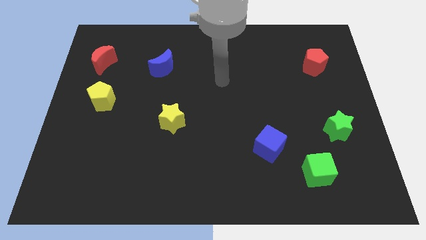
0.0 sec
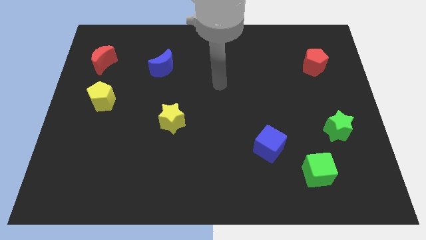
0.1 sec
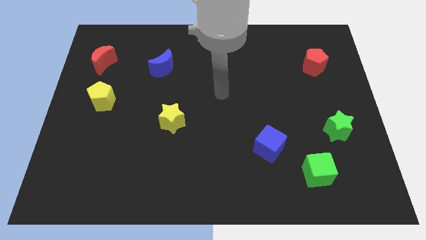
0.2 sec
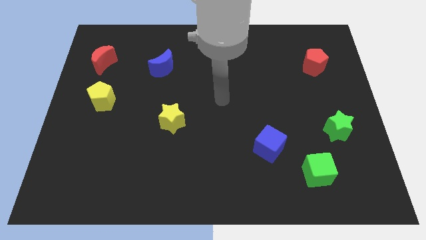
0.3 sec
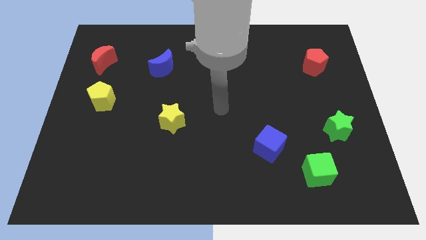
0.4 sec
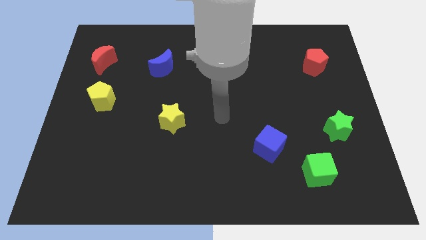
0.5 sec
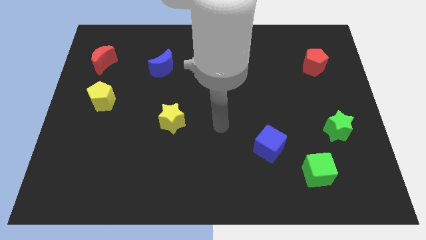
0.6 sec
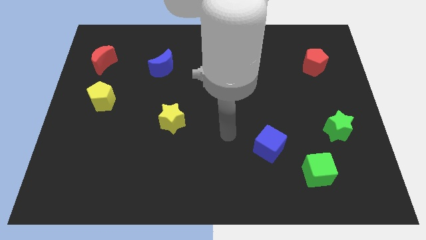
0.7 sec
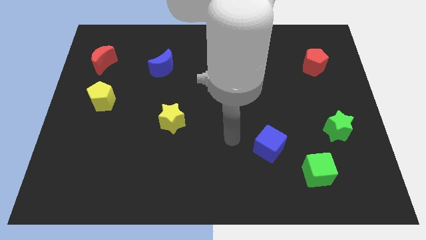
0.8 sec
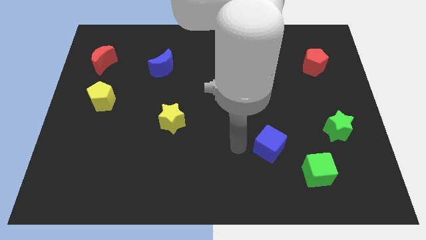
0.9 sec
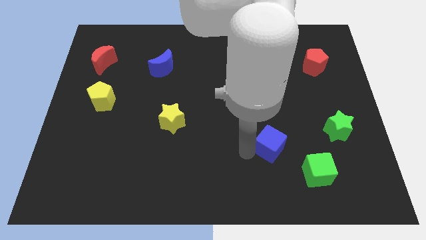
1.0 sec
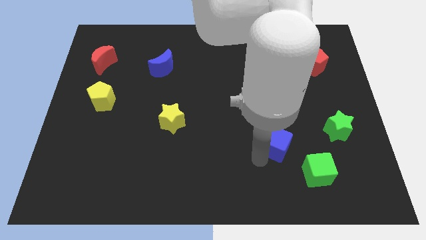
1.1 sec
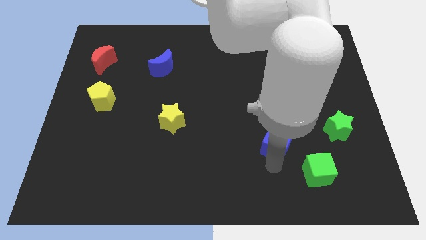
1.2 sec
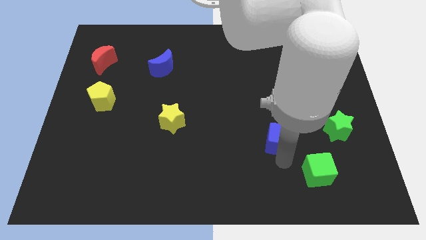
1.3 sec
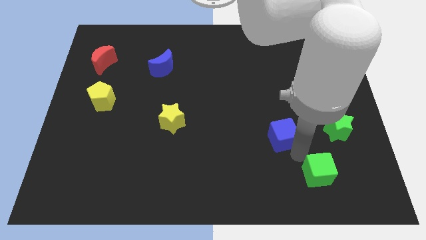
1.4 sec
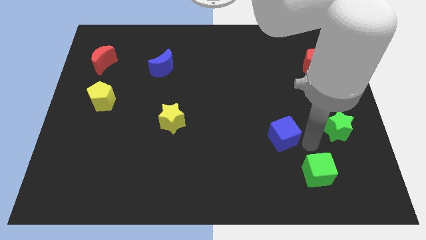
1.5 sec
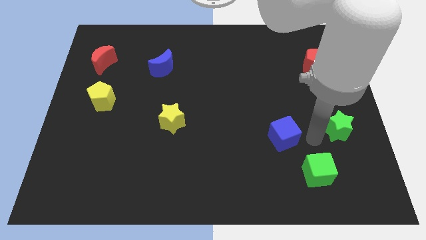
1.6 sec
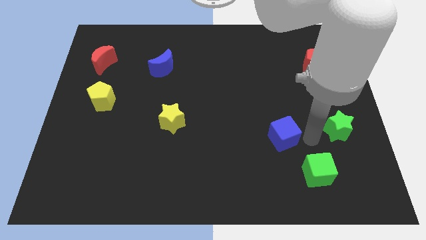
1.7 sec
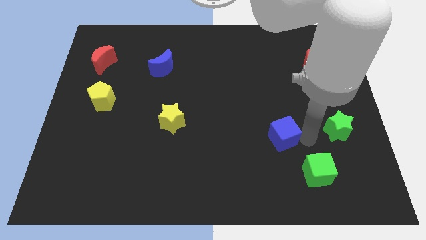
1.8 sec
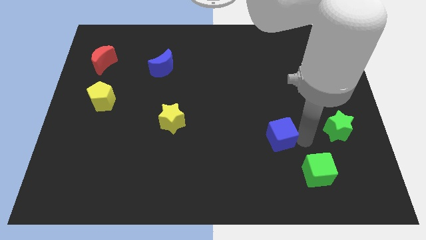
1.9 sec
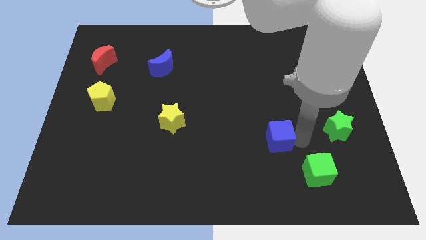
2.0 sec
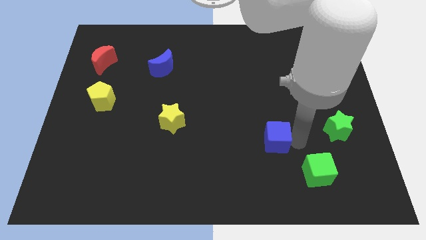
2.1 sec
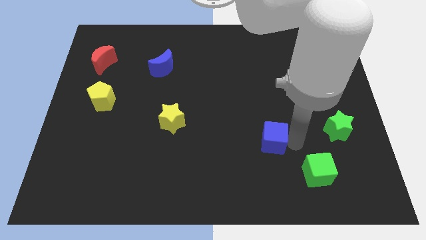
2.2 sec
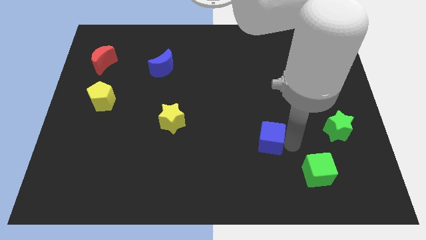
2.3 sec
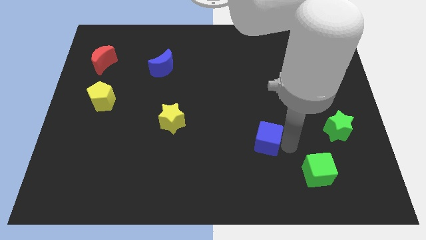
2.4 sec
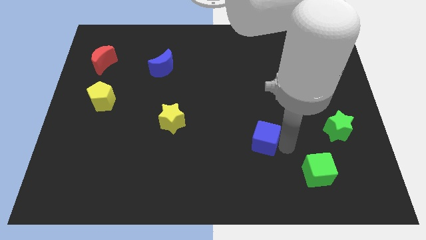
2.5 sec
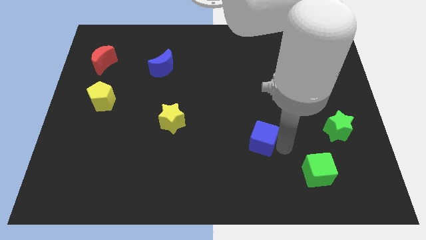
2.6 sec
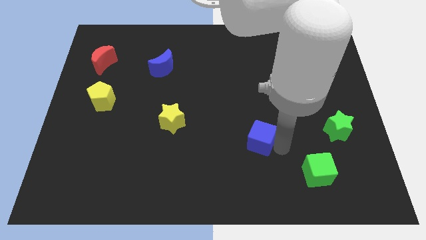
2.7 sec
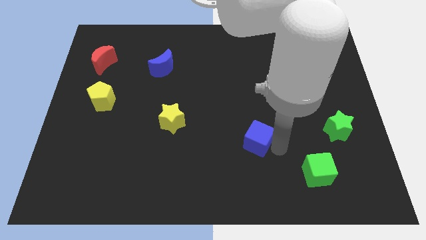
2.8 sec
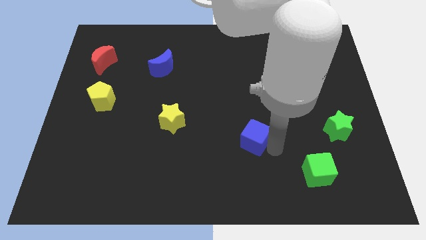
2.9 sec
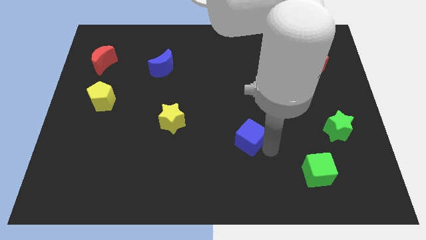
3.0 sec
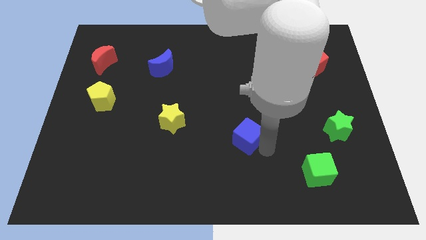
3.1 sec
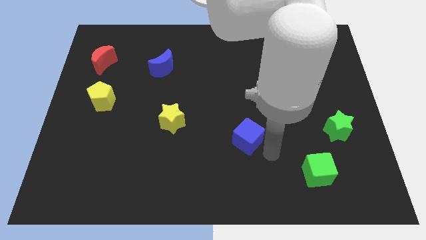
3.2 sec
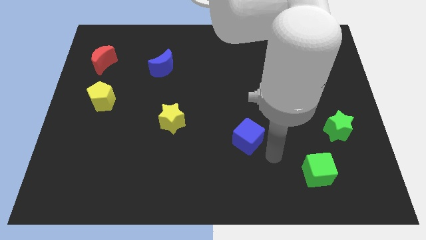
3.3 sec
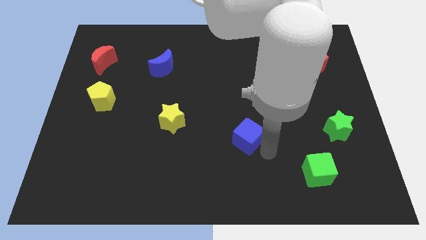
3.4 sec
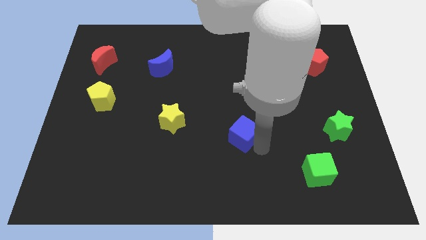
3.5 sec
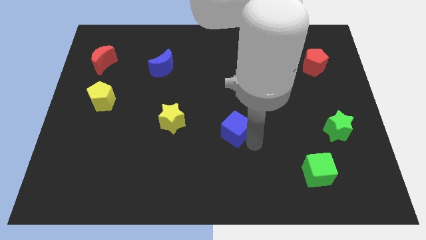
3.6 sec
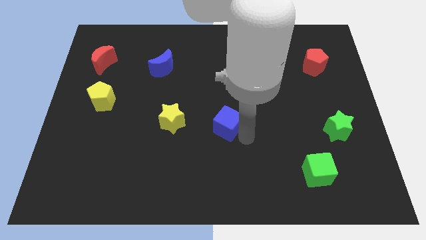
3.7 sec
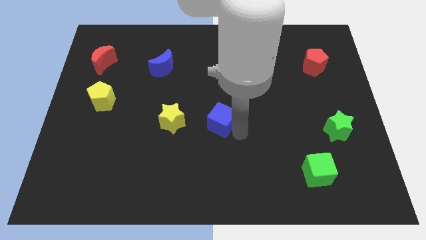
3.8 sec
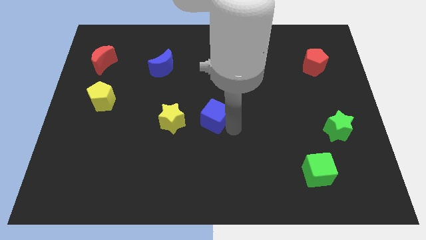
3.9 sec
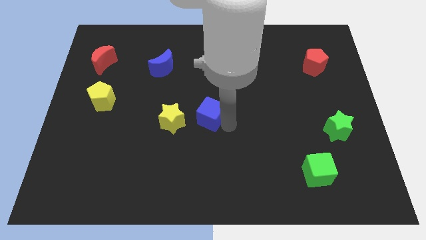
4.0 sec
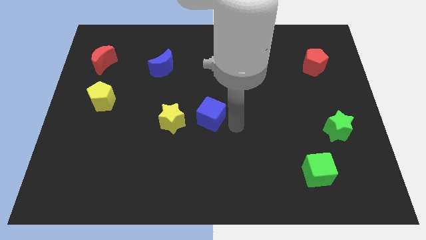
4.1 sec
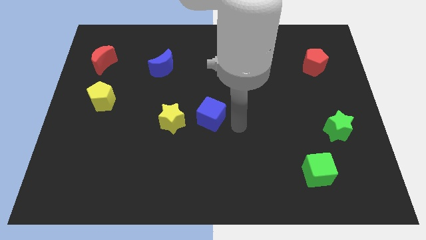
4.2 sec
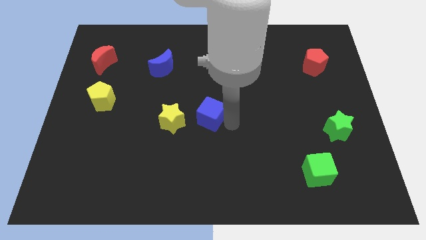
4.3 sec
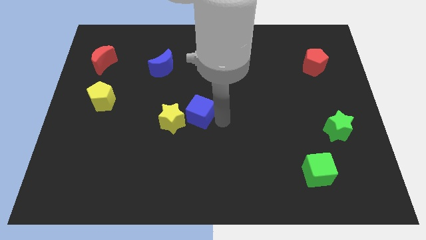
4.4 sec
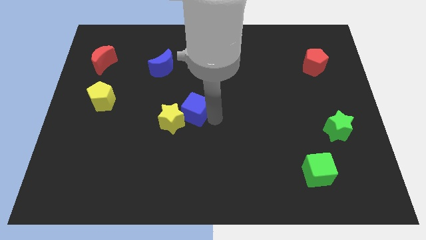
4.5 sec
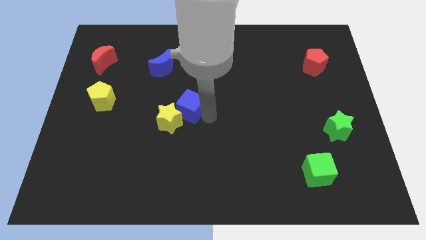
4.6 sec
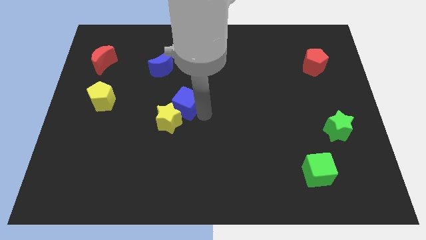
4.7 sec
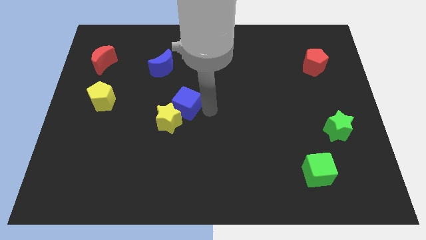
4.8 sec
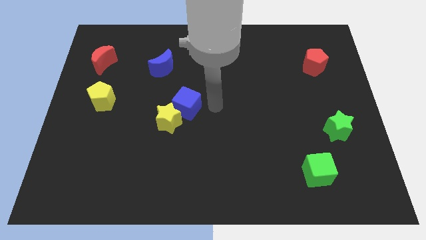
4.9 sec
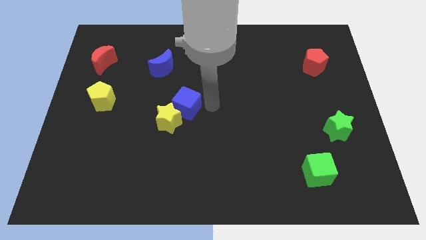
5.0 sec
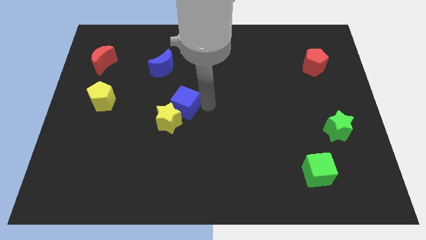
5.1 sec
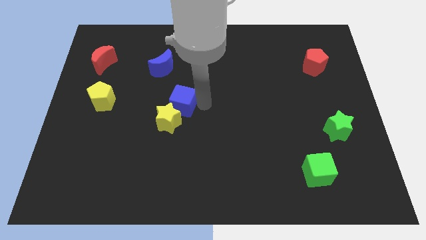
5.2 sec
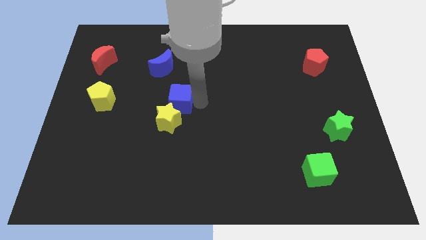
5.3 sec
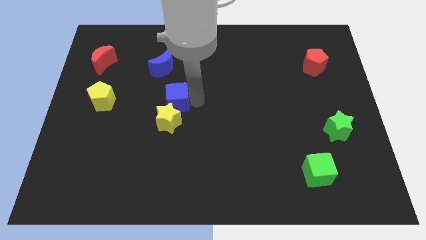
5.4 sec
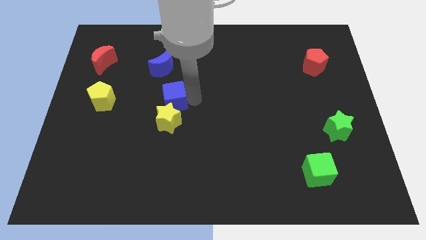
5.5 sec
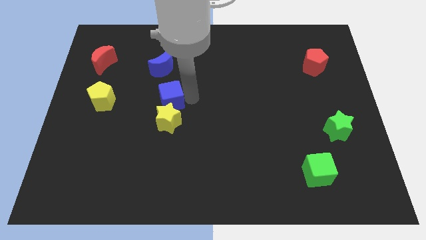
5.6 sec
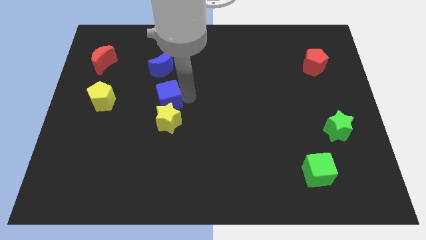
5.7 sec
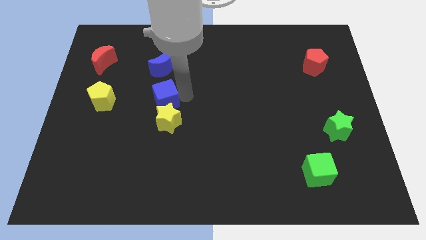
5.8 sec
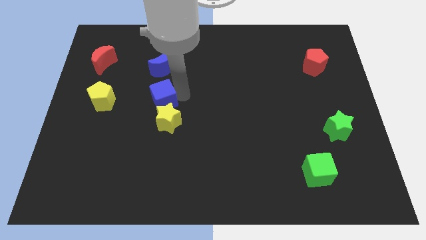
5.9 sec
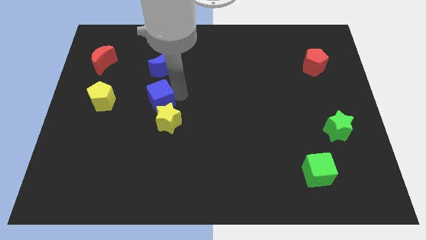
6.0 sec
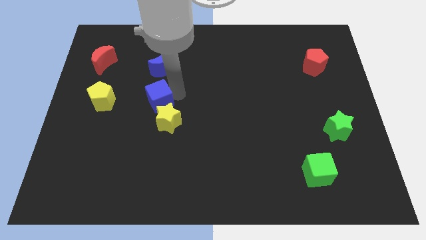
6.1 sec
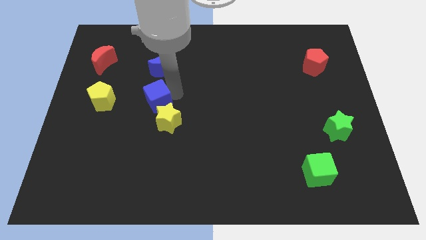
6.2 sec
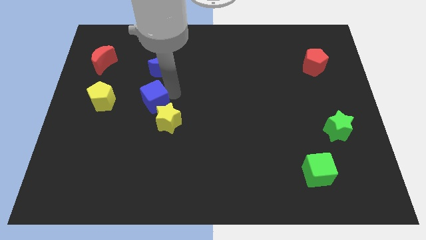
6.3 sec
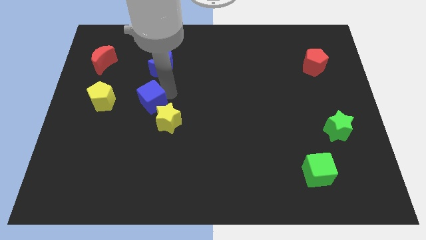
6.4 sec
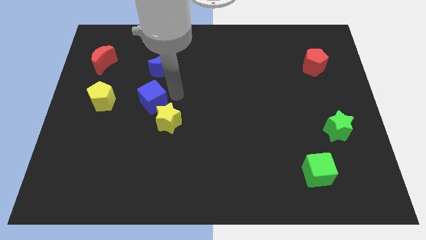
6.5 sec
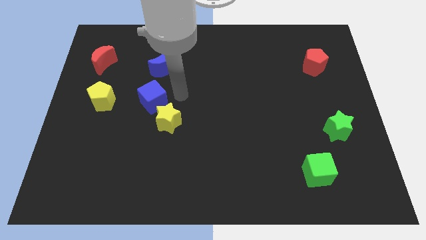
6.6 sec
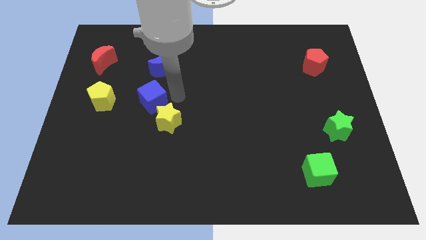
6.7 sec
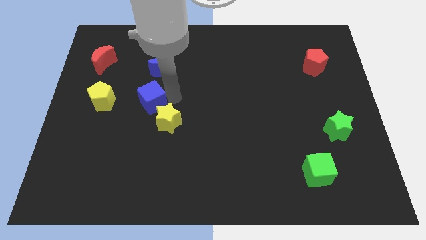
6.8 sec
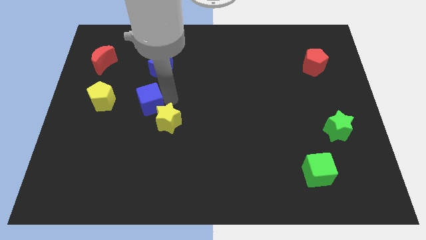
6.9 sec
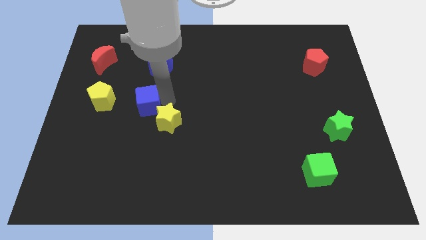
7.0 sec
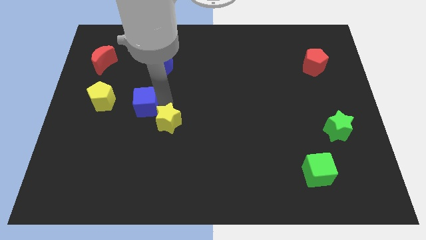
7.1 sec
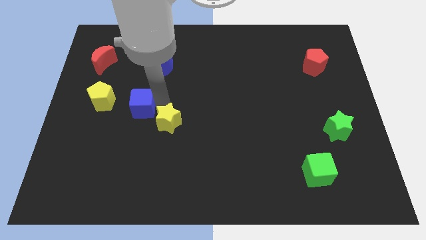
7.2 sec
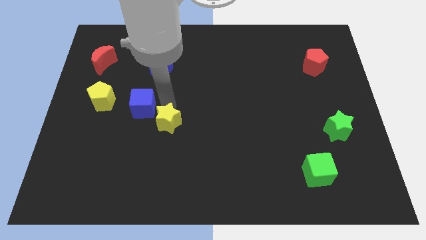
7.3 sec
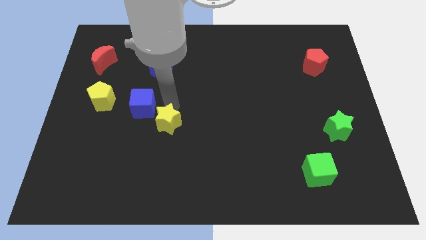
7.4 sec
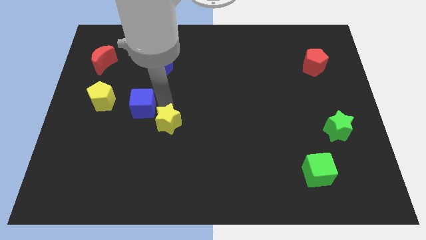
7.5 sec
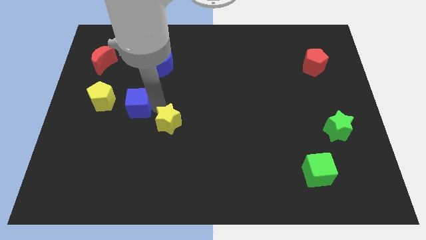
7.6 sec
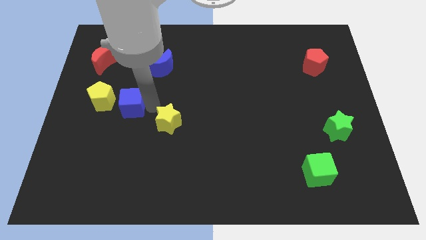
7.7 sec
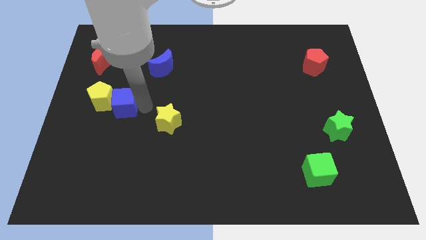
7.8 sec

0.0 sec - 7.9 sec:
slide the blue cube next to the yellow pentagon
